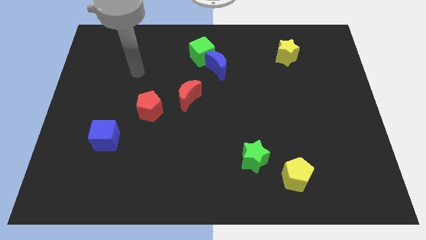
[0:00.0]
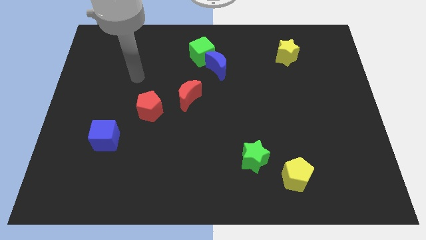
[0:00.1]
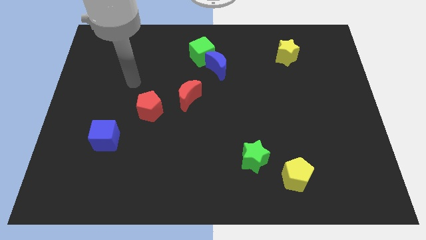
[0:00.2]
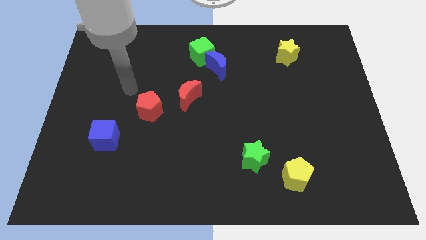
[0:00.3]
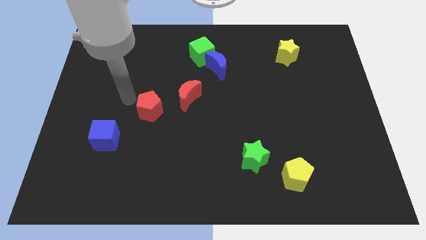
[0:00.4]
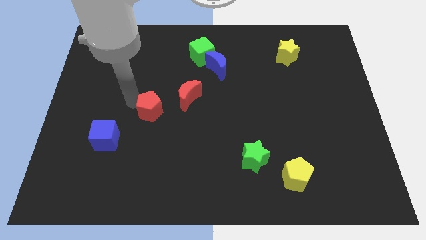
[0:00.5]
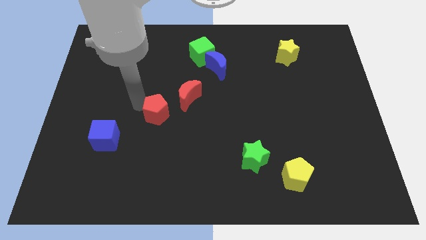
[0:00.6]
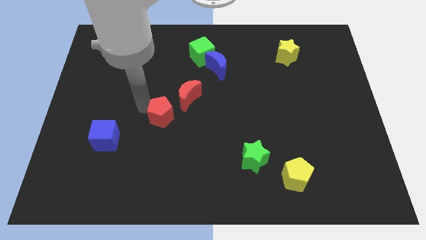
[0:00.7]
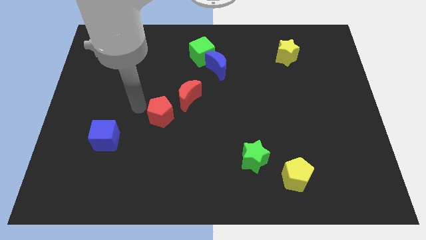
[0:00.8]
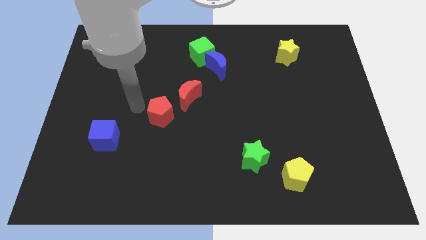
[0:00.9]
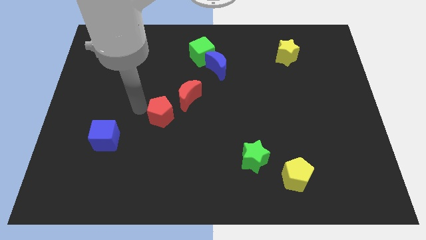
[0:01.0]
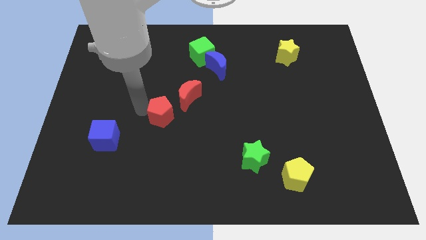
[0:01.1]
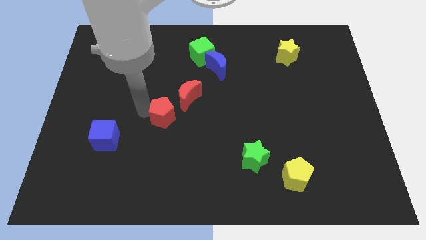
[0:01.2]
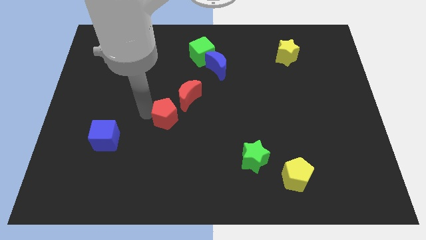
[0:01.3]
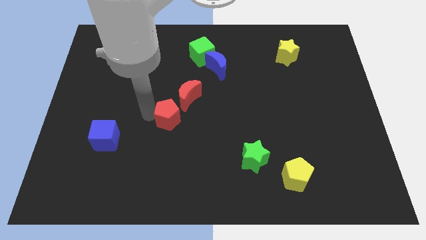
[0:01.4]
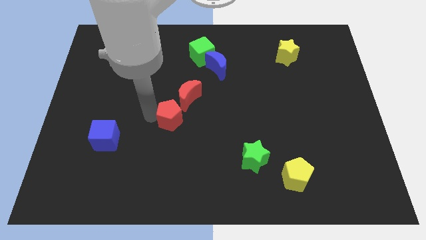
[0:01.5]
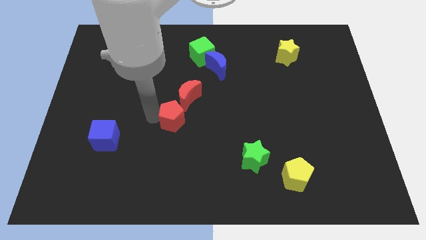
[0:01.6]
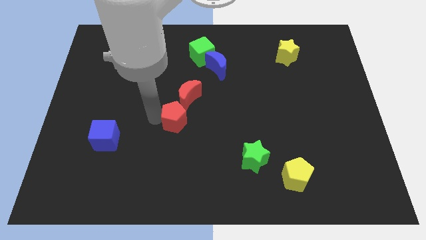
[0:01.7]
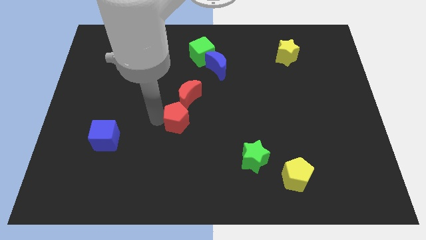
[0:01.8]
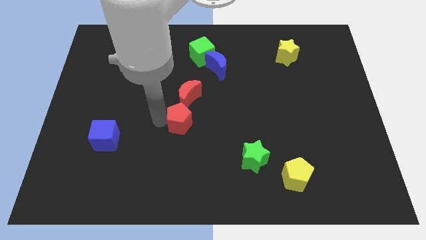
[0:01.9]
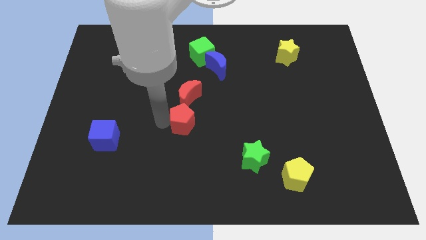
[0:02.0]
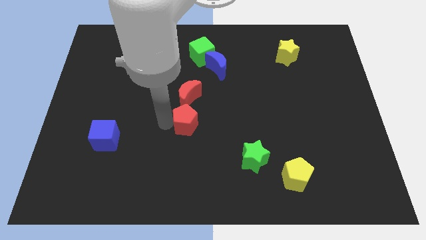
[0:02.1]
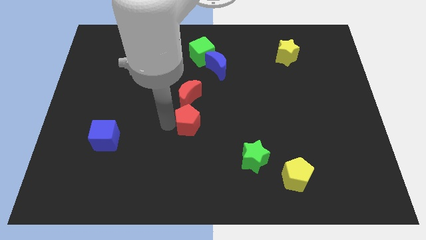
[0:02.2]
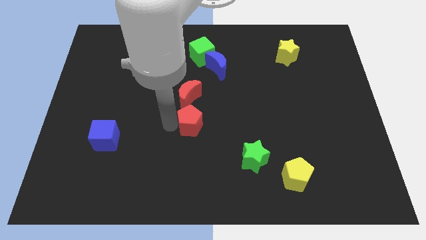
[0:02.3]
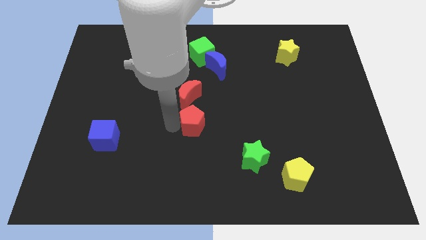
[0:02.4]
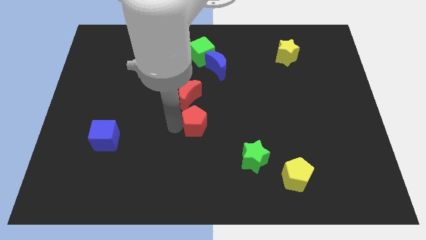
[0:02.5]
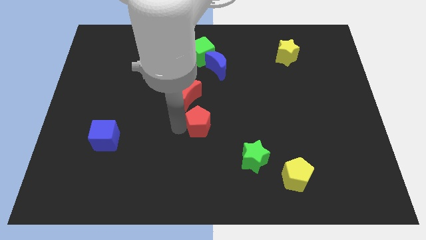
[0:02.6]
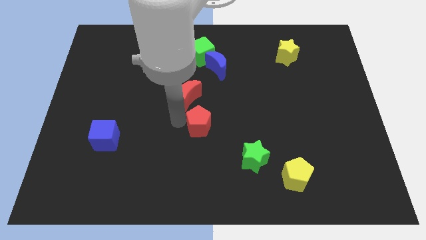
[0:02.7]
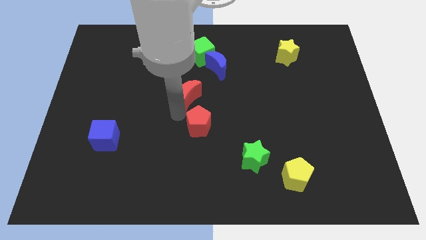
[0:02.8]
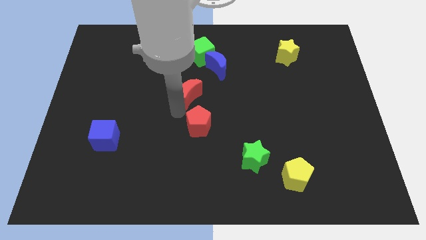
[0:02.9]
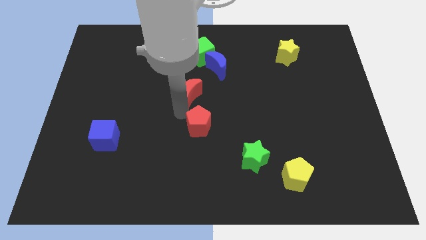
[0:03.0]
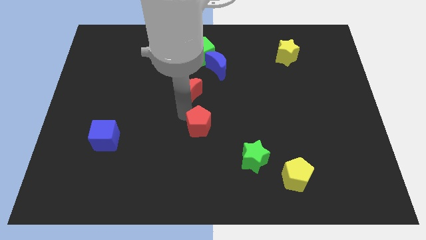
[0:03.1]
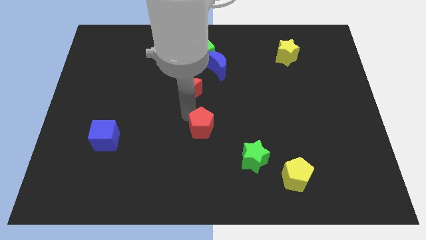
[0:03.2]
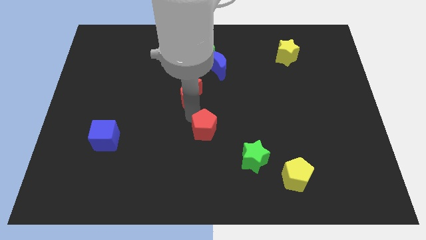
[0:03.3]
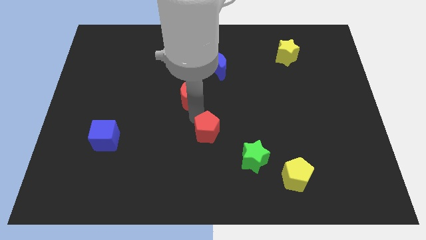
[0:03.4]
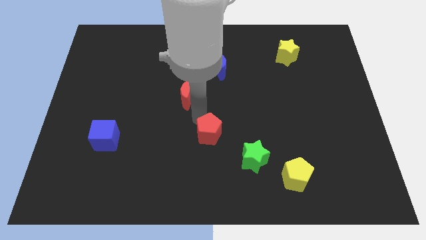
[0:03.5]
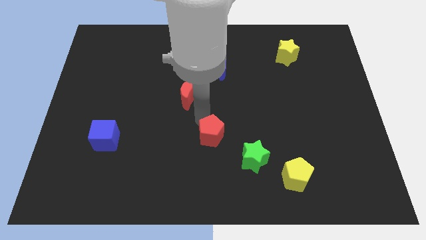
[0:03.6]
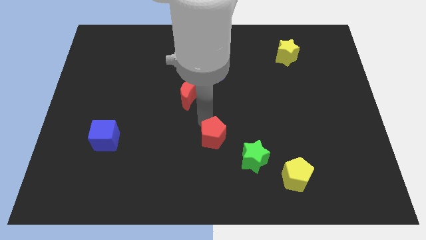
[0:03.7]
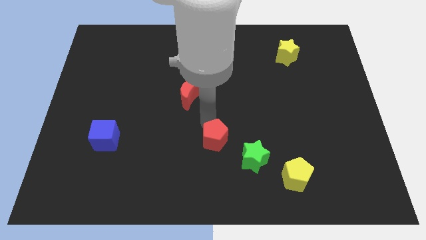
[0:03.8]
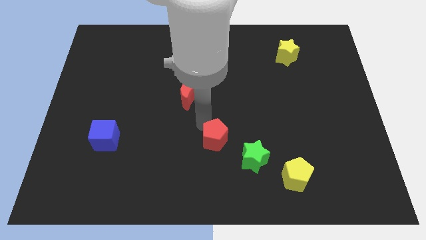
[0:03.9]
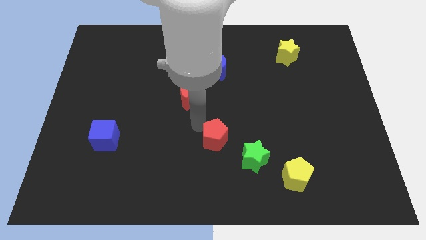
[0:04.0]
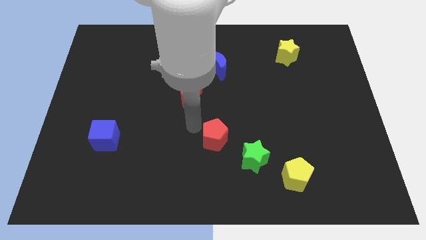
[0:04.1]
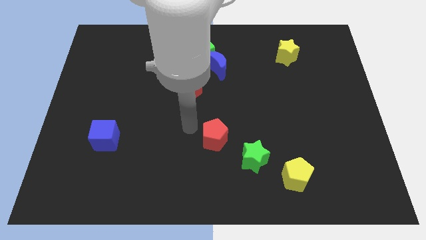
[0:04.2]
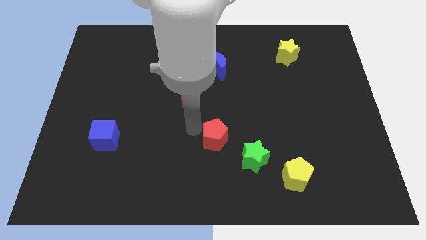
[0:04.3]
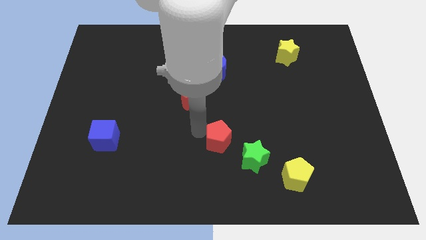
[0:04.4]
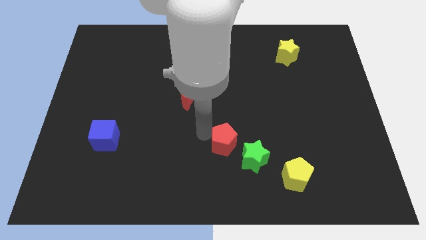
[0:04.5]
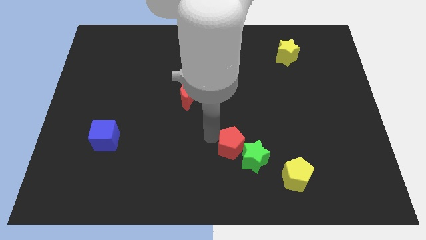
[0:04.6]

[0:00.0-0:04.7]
move the red pentagon next to the green star

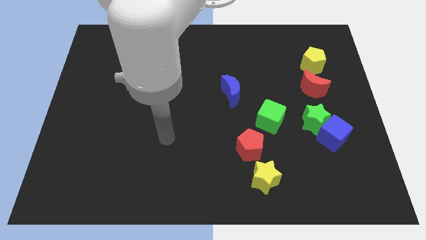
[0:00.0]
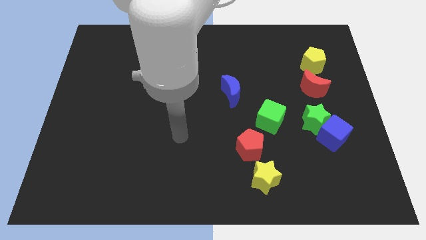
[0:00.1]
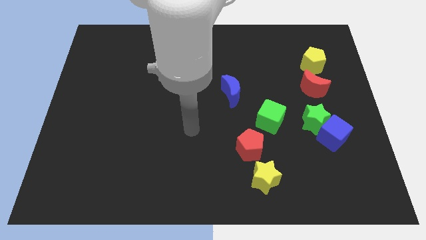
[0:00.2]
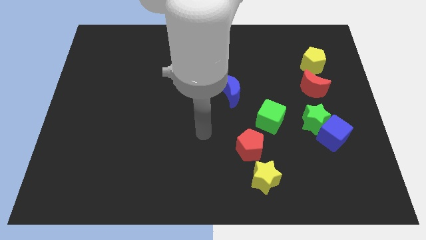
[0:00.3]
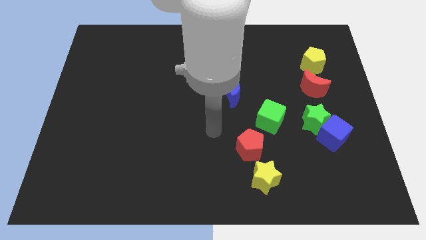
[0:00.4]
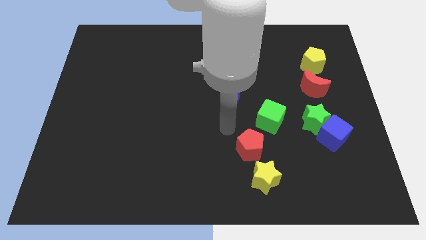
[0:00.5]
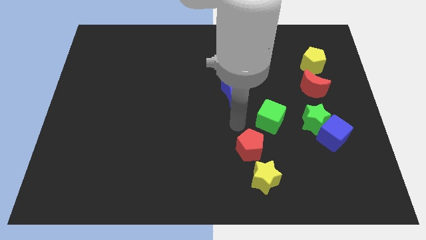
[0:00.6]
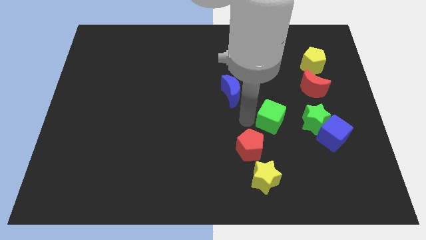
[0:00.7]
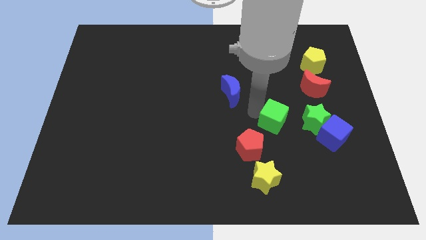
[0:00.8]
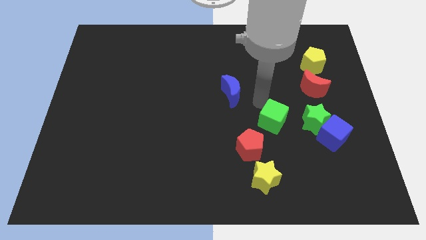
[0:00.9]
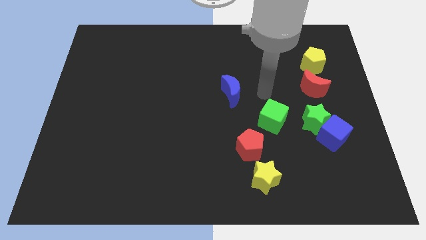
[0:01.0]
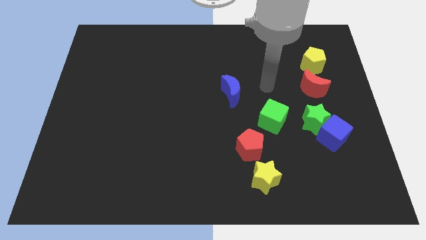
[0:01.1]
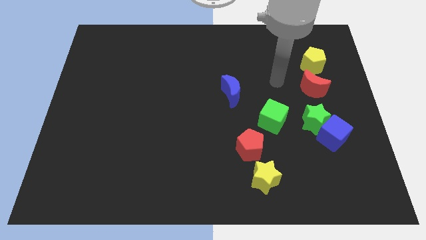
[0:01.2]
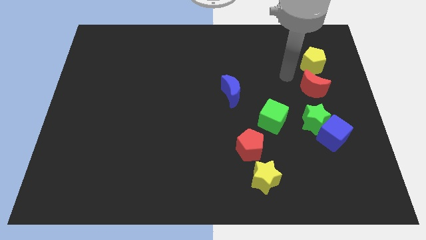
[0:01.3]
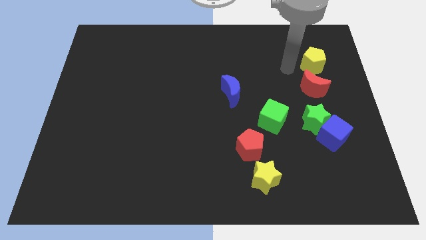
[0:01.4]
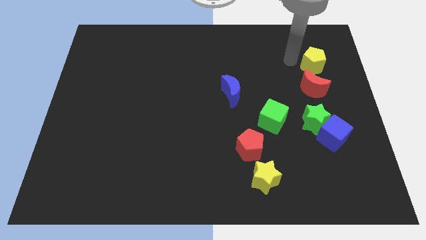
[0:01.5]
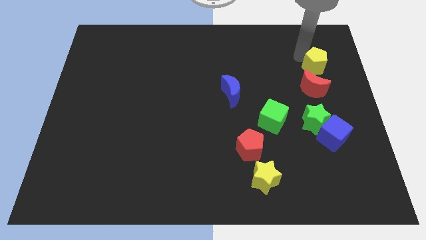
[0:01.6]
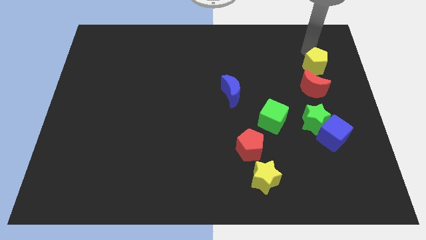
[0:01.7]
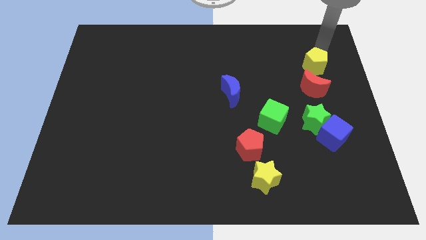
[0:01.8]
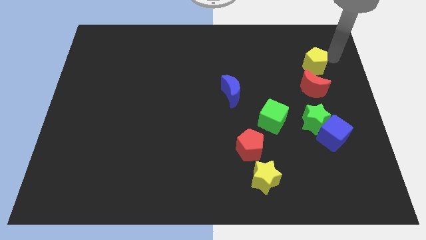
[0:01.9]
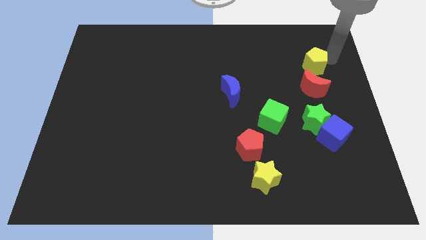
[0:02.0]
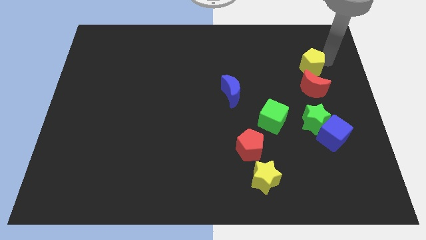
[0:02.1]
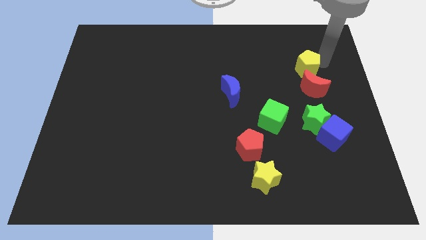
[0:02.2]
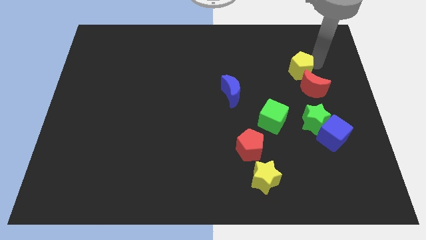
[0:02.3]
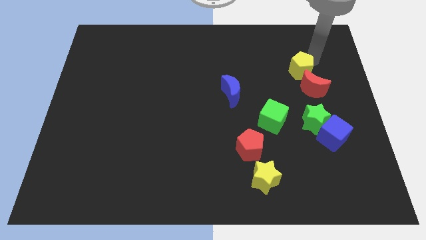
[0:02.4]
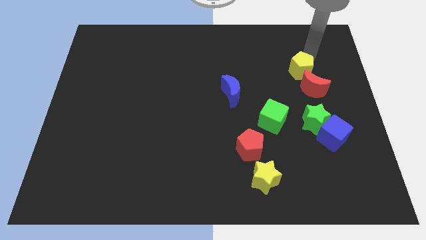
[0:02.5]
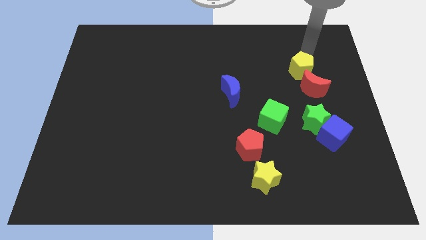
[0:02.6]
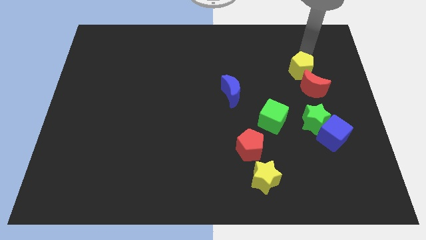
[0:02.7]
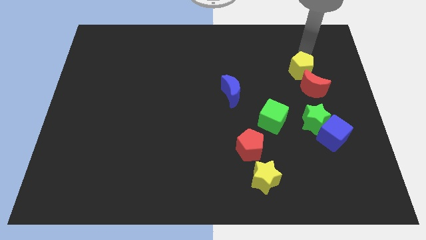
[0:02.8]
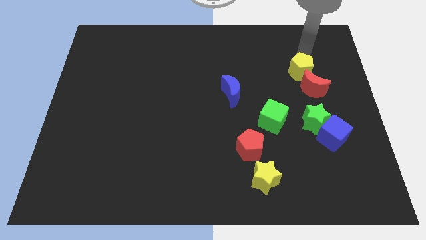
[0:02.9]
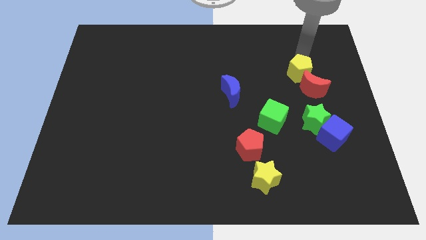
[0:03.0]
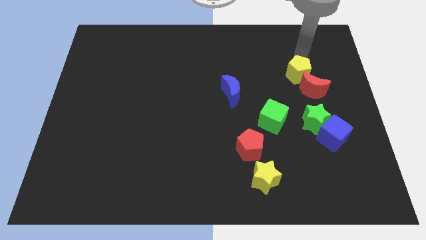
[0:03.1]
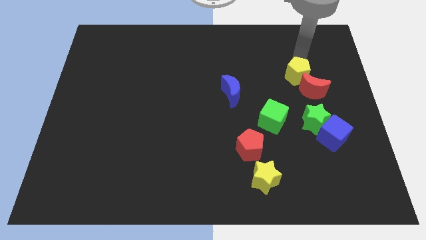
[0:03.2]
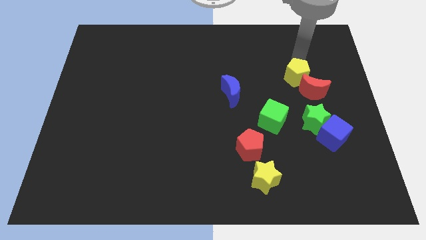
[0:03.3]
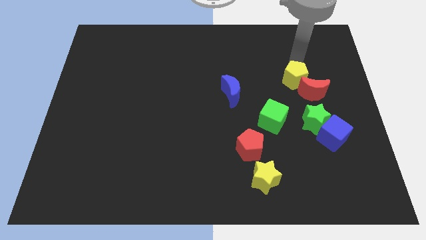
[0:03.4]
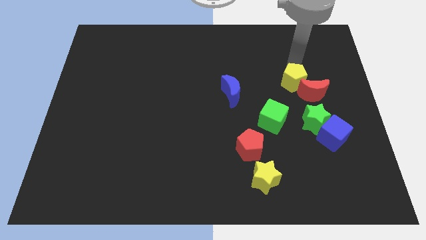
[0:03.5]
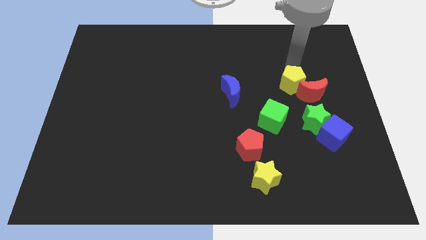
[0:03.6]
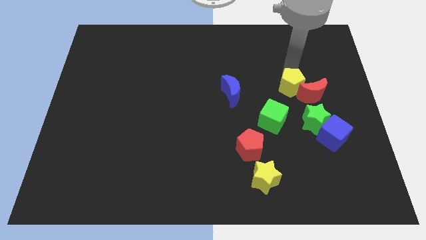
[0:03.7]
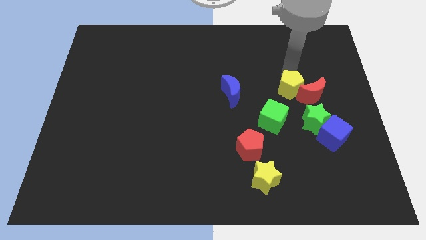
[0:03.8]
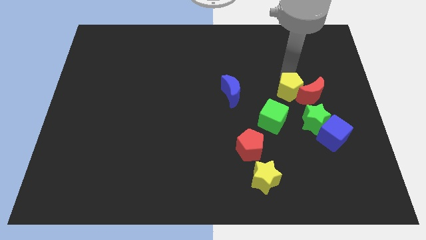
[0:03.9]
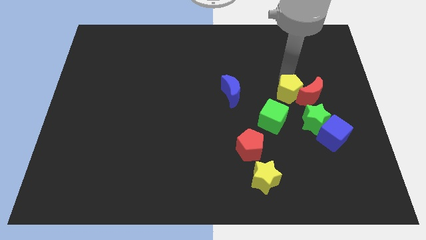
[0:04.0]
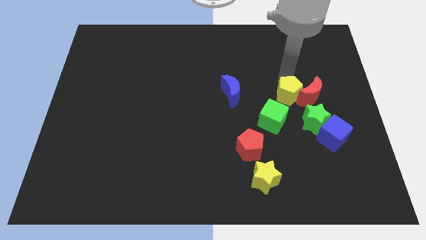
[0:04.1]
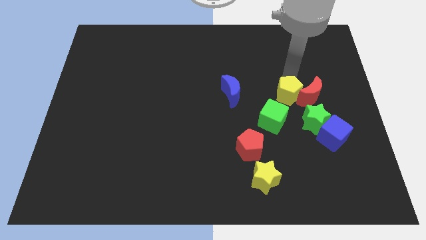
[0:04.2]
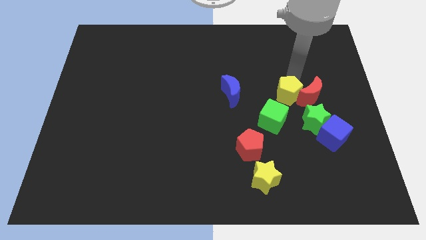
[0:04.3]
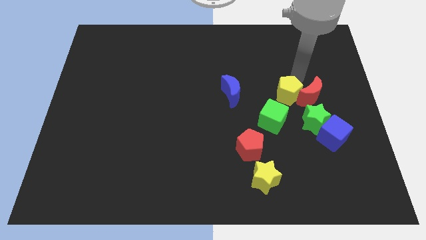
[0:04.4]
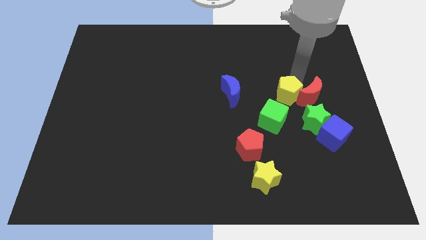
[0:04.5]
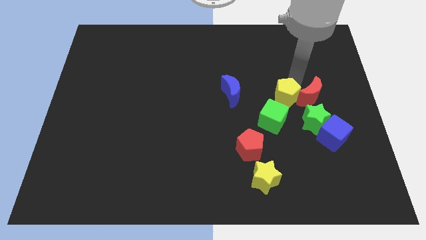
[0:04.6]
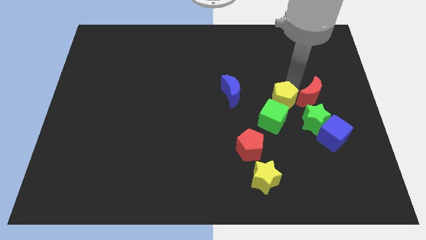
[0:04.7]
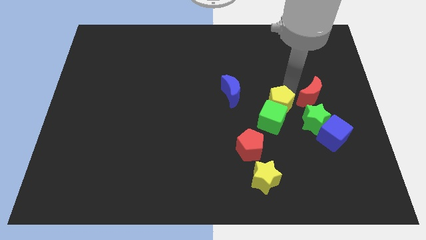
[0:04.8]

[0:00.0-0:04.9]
put the yellow pentagon to the green cube
